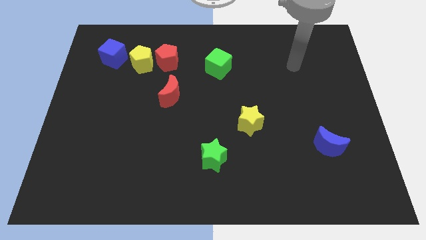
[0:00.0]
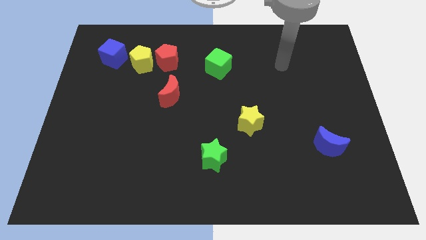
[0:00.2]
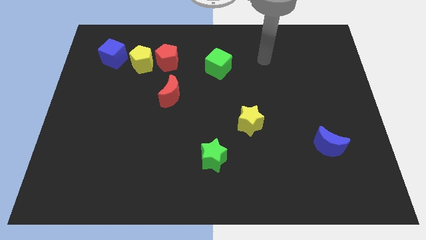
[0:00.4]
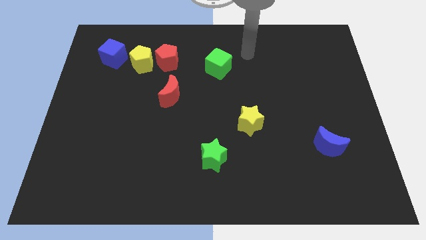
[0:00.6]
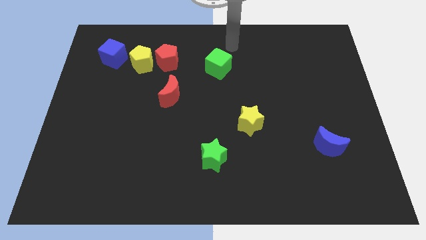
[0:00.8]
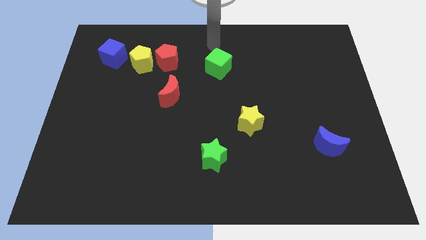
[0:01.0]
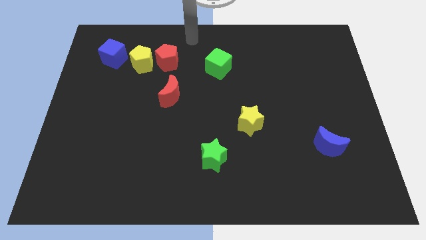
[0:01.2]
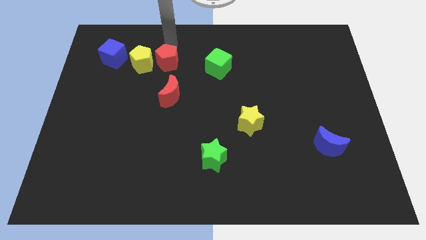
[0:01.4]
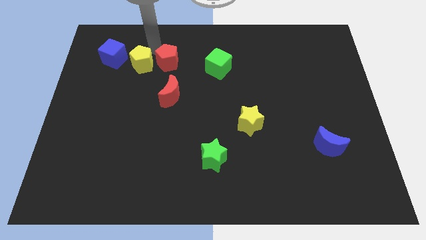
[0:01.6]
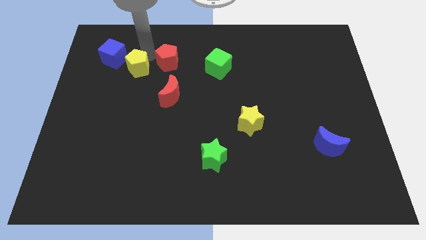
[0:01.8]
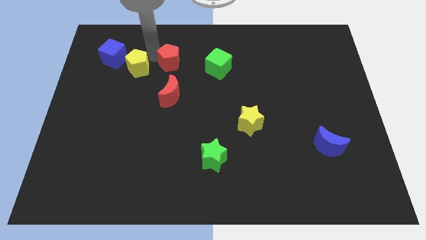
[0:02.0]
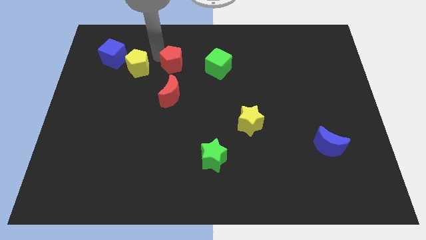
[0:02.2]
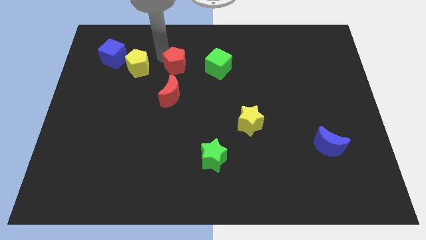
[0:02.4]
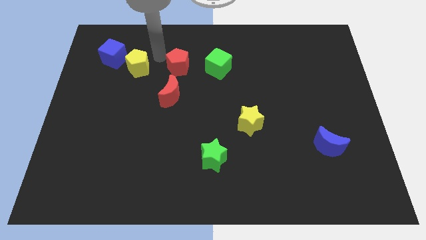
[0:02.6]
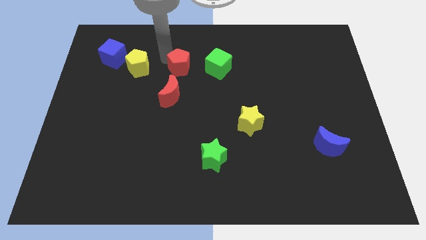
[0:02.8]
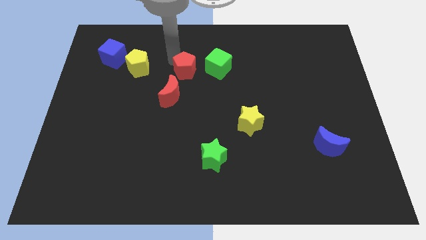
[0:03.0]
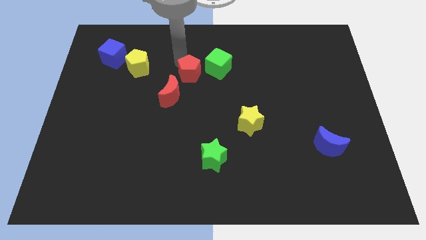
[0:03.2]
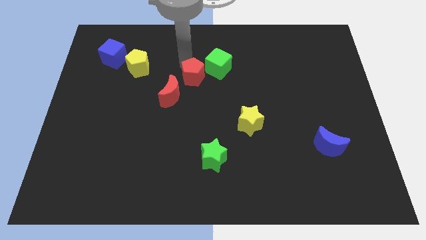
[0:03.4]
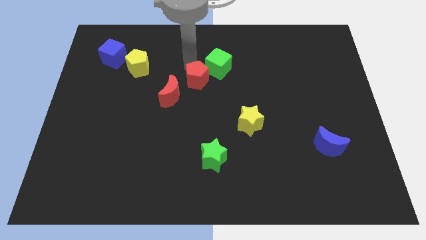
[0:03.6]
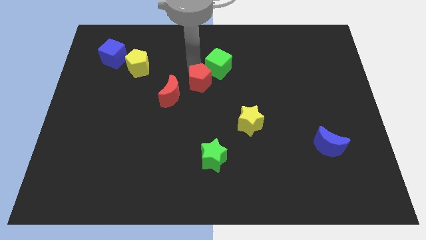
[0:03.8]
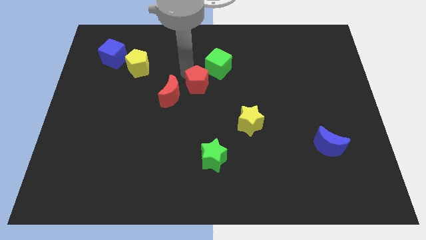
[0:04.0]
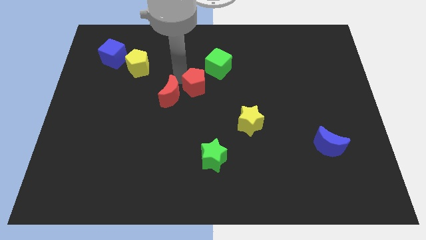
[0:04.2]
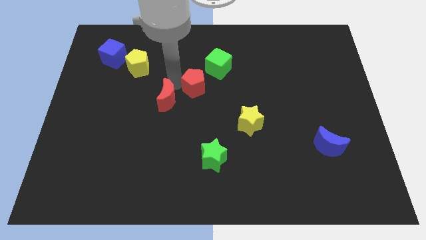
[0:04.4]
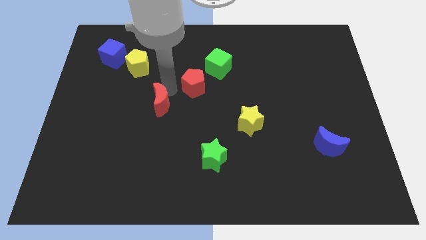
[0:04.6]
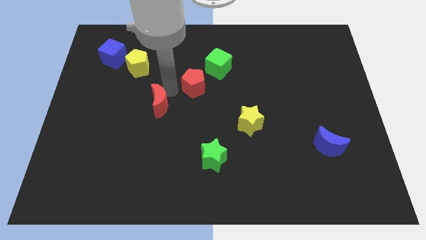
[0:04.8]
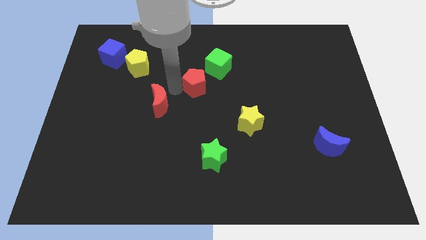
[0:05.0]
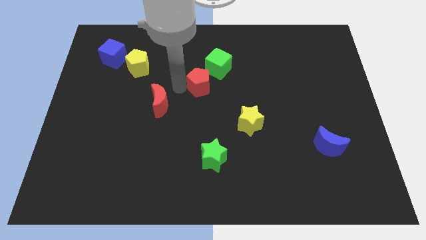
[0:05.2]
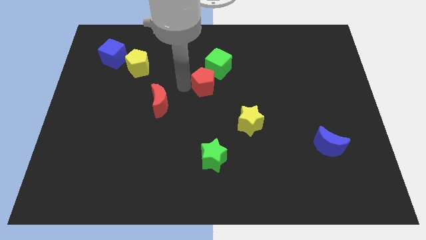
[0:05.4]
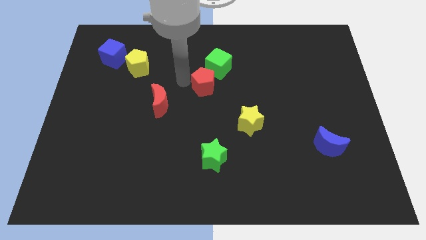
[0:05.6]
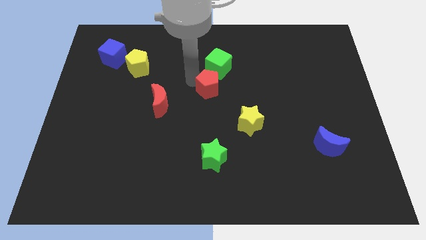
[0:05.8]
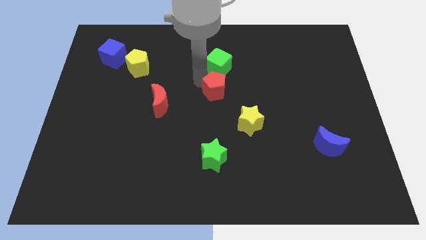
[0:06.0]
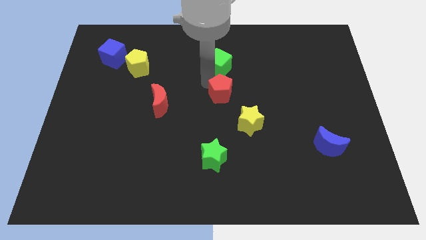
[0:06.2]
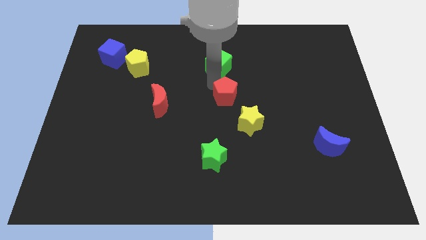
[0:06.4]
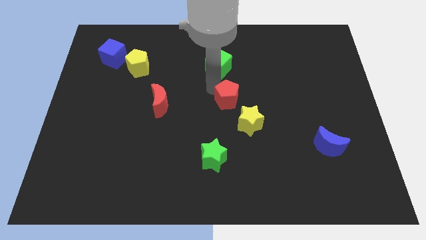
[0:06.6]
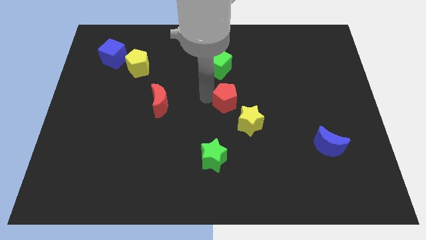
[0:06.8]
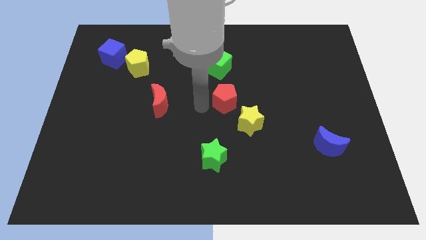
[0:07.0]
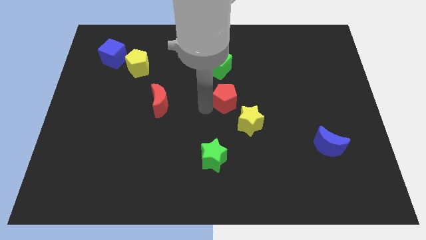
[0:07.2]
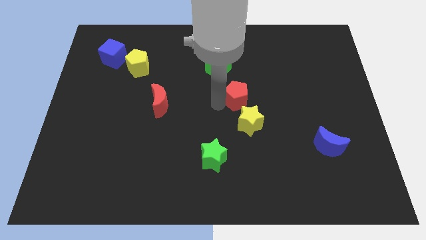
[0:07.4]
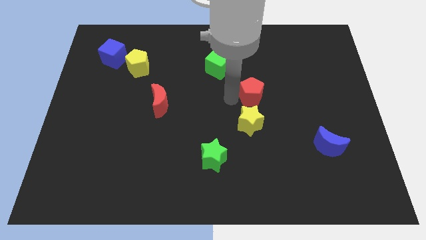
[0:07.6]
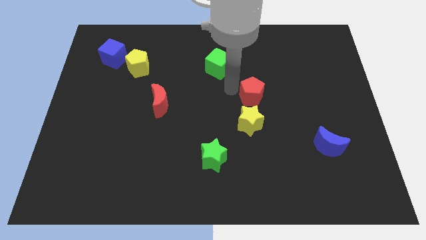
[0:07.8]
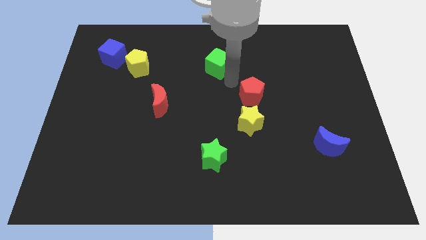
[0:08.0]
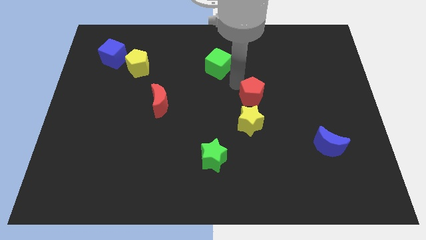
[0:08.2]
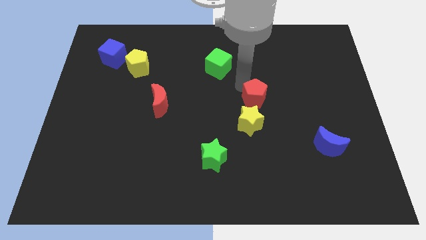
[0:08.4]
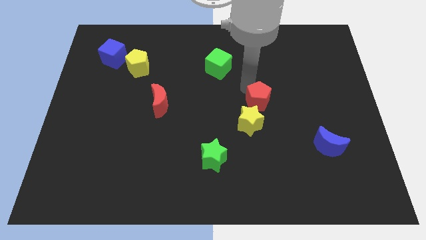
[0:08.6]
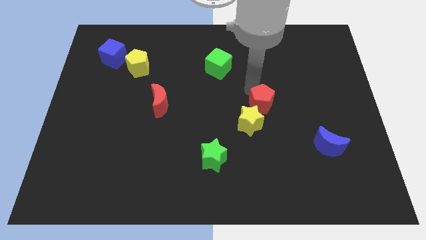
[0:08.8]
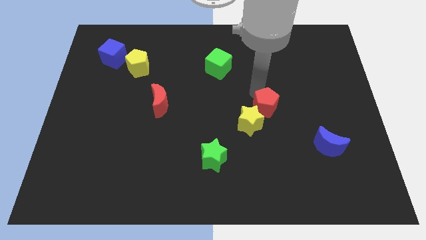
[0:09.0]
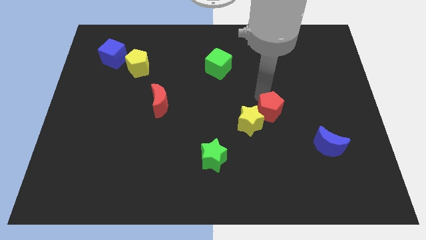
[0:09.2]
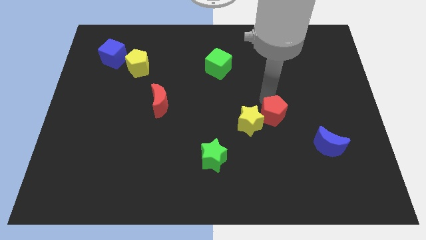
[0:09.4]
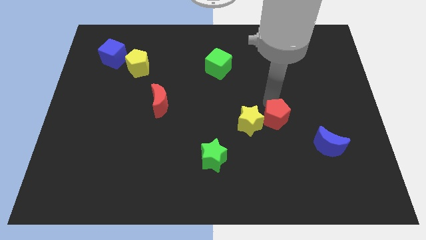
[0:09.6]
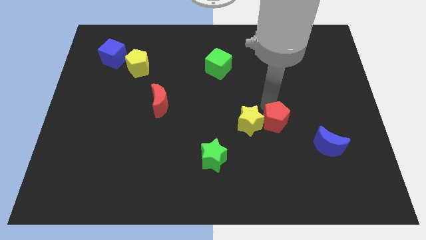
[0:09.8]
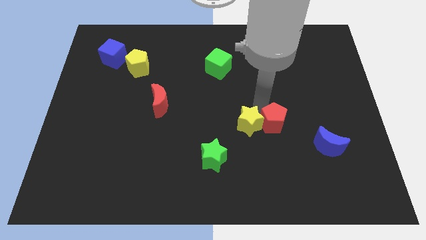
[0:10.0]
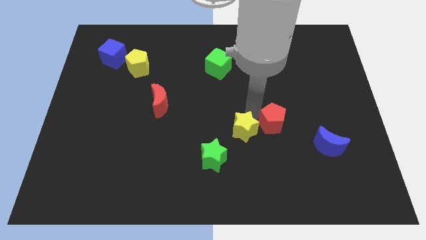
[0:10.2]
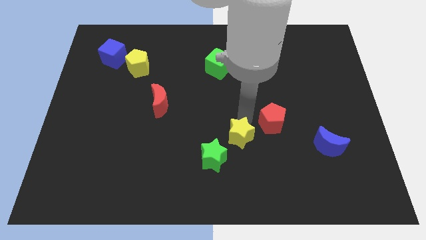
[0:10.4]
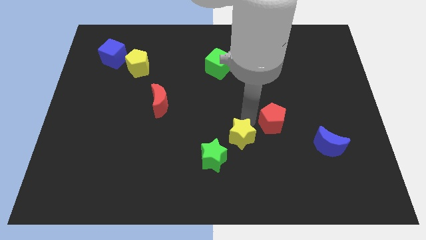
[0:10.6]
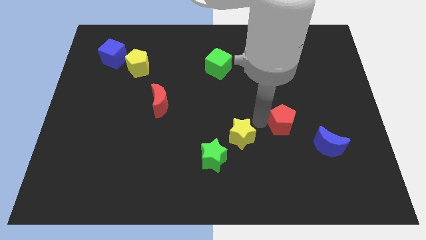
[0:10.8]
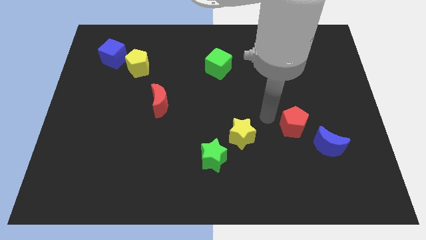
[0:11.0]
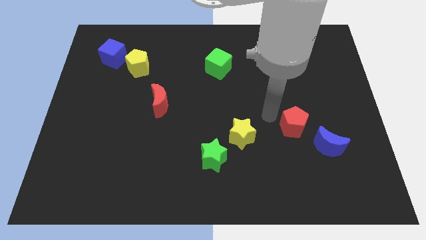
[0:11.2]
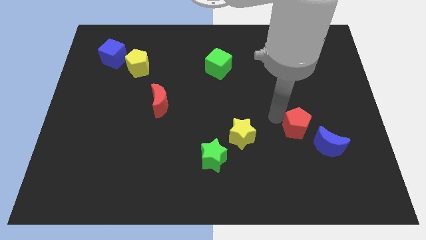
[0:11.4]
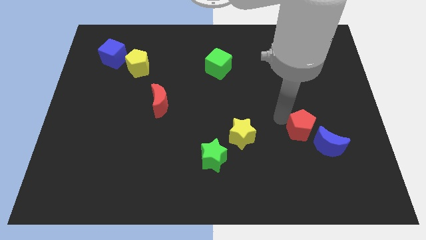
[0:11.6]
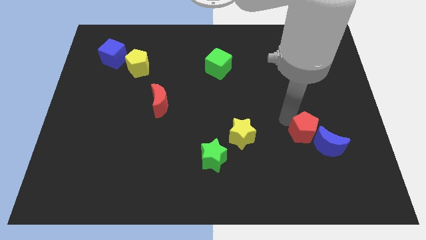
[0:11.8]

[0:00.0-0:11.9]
push the red pentagon close to the blue moon

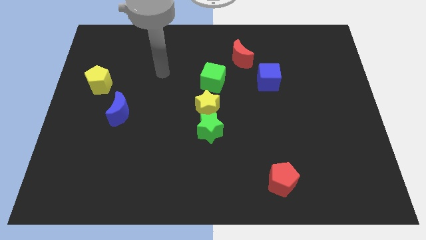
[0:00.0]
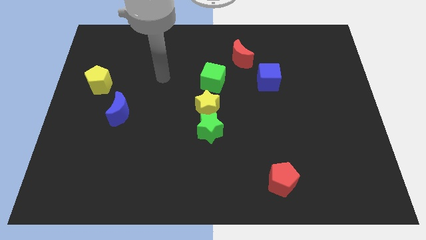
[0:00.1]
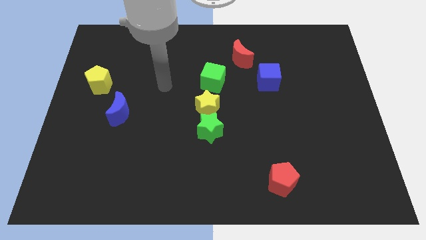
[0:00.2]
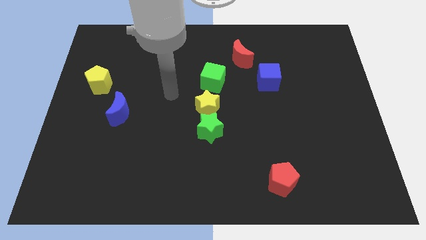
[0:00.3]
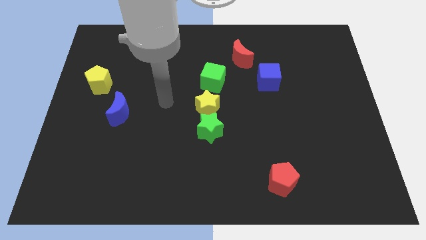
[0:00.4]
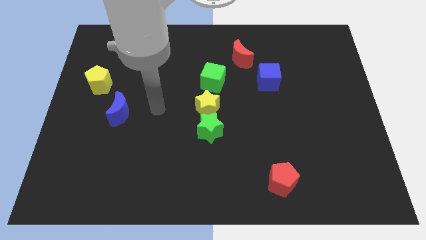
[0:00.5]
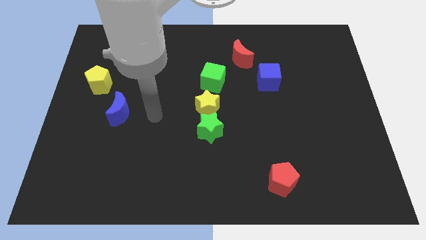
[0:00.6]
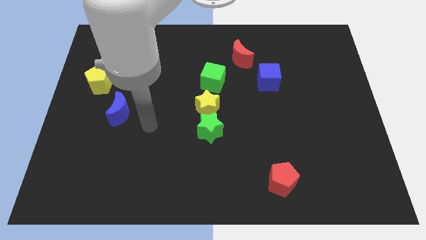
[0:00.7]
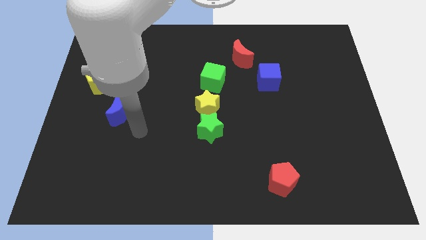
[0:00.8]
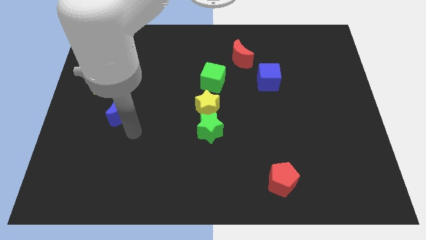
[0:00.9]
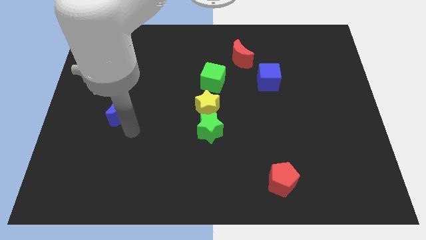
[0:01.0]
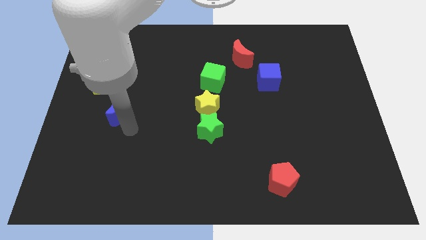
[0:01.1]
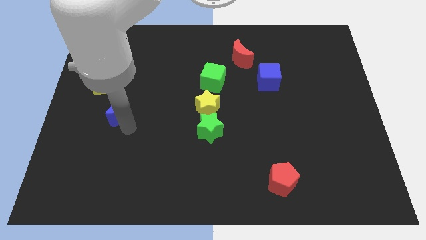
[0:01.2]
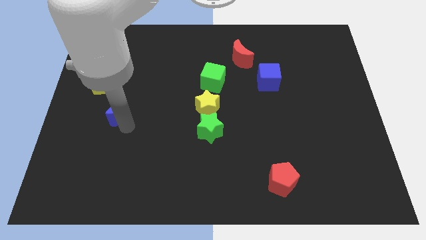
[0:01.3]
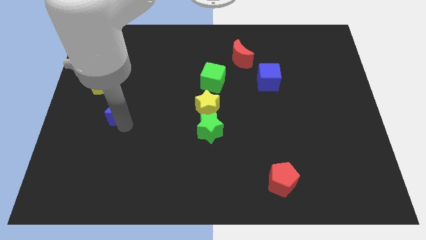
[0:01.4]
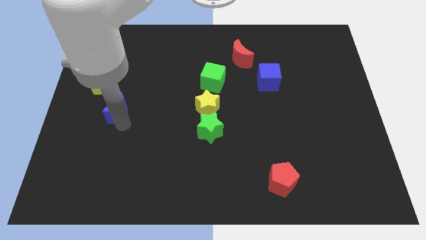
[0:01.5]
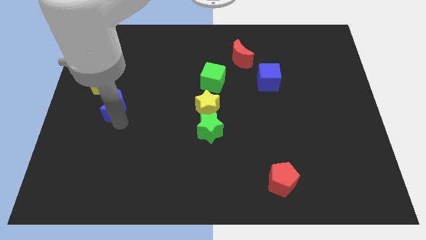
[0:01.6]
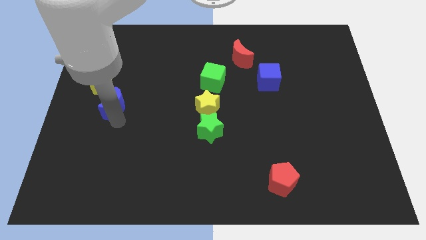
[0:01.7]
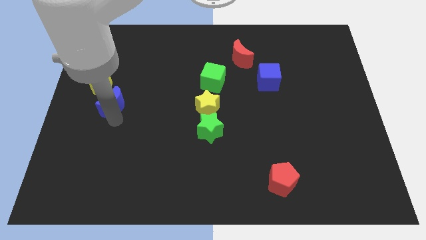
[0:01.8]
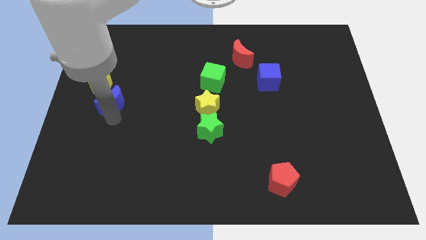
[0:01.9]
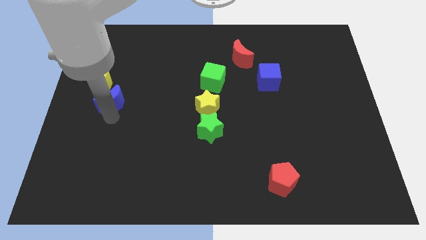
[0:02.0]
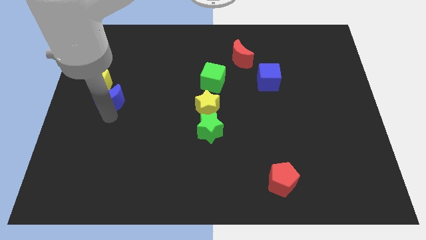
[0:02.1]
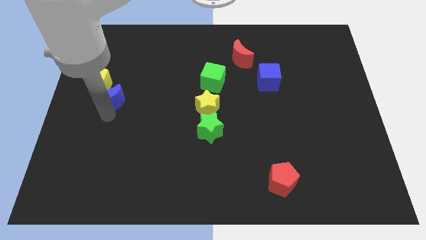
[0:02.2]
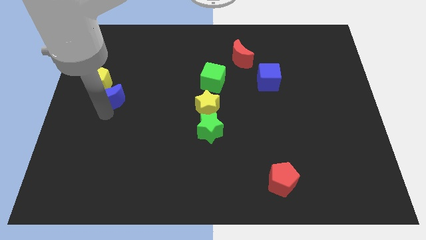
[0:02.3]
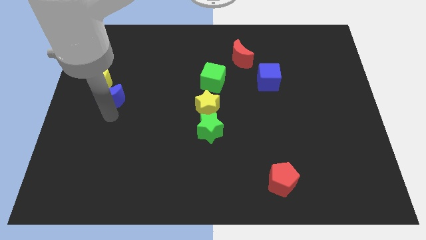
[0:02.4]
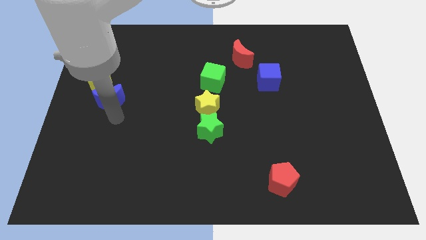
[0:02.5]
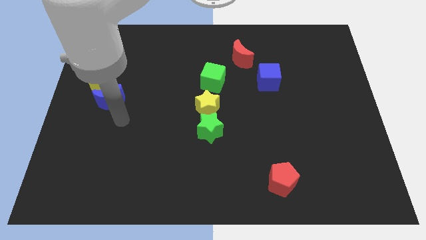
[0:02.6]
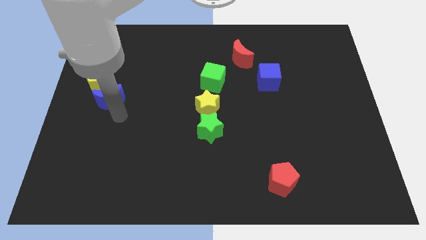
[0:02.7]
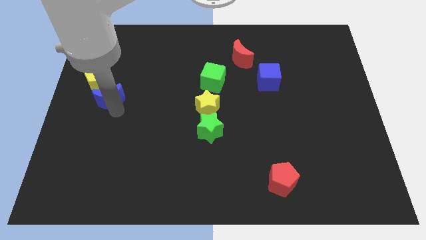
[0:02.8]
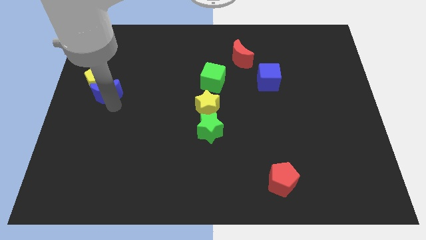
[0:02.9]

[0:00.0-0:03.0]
slide the blue moon towards the yellow pentagon
